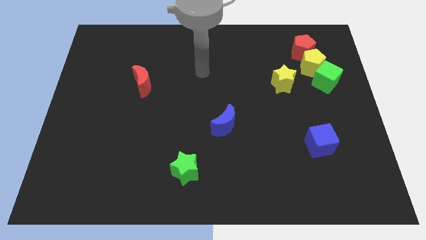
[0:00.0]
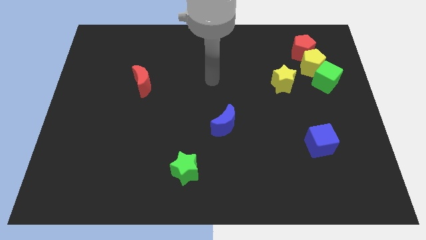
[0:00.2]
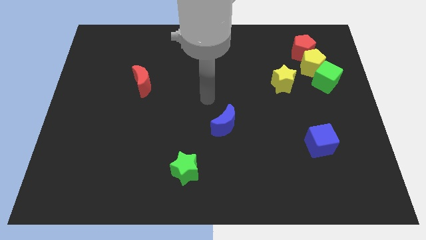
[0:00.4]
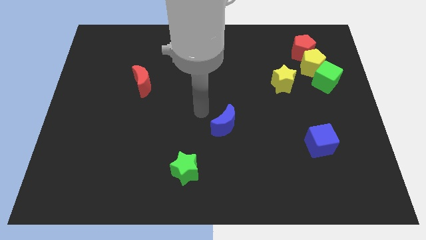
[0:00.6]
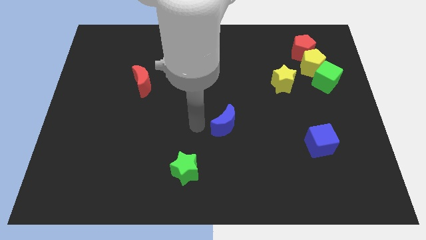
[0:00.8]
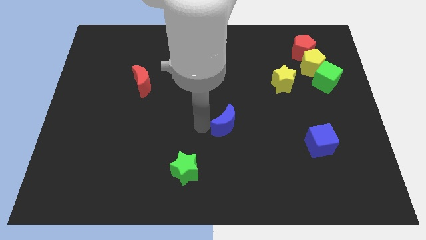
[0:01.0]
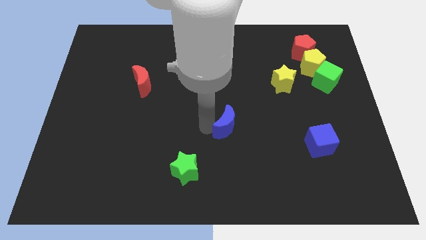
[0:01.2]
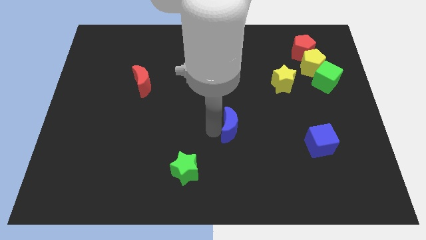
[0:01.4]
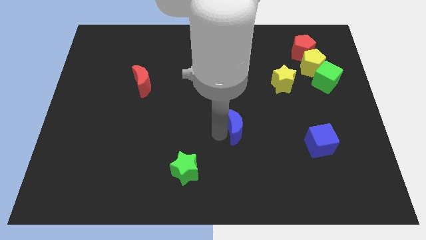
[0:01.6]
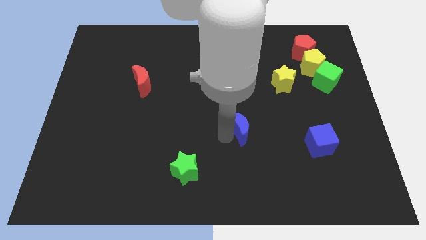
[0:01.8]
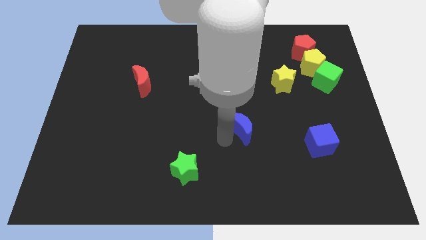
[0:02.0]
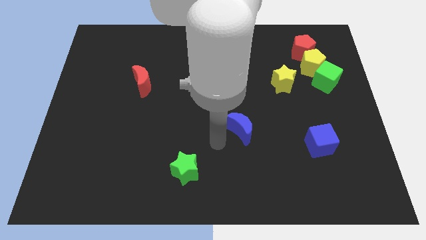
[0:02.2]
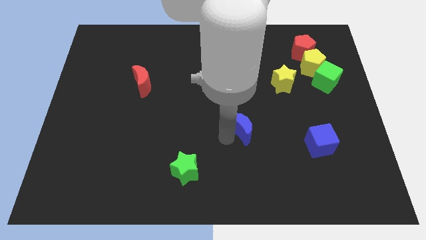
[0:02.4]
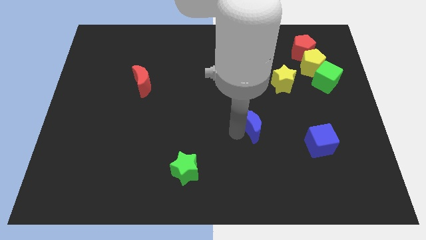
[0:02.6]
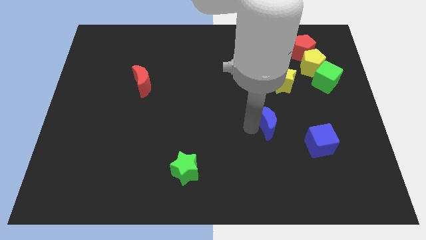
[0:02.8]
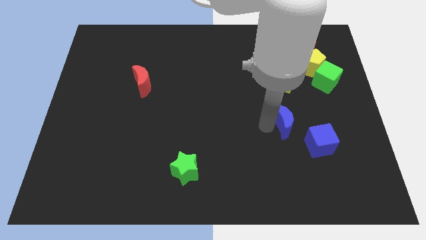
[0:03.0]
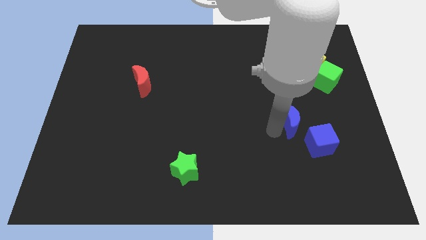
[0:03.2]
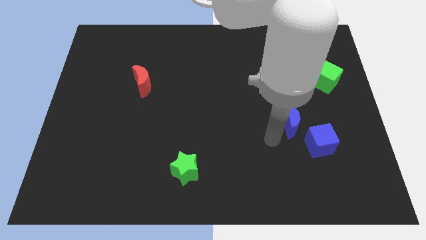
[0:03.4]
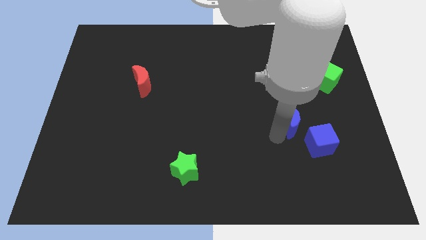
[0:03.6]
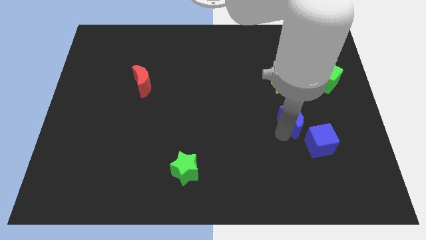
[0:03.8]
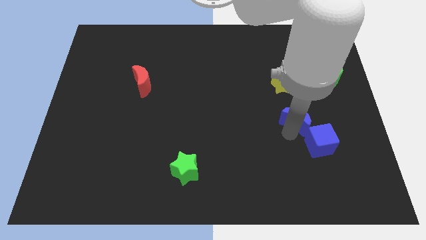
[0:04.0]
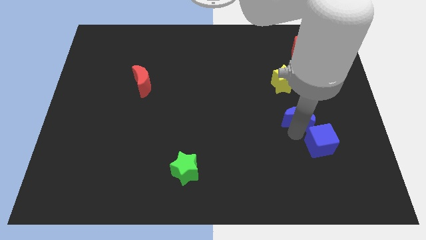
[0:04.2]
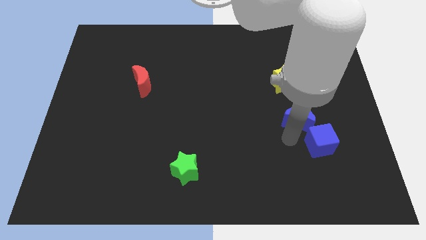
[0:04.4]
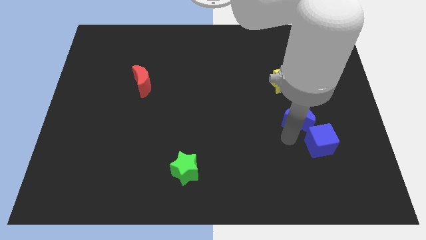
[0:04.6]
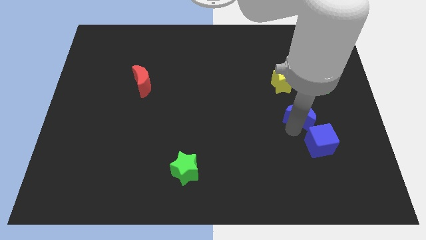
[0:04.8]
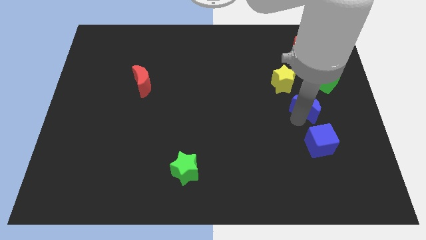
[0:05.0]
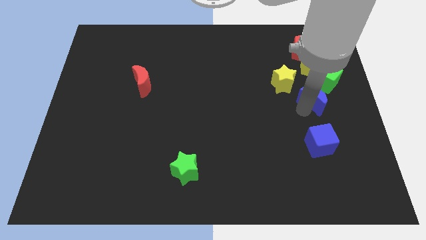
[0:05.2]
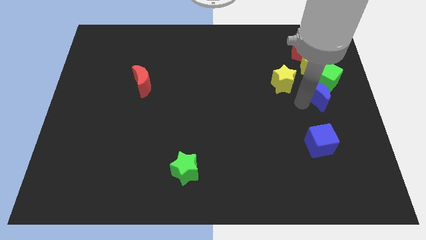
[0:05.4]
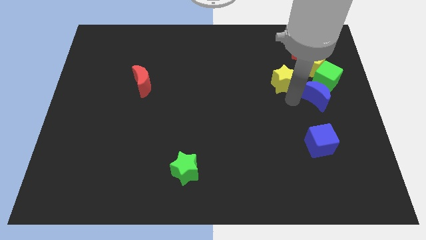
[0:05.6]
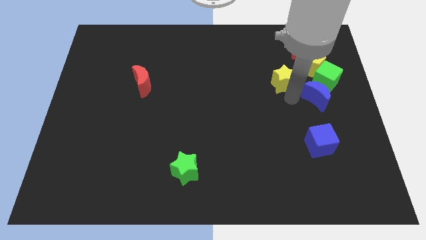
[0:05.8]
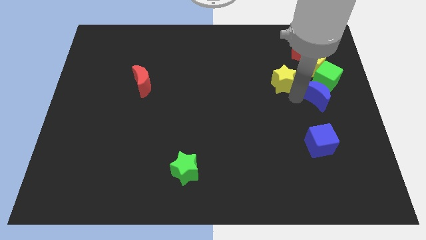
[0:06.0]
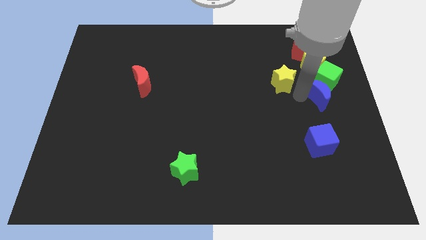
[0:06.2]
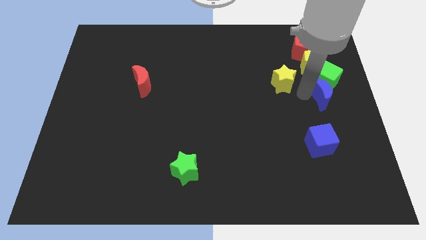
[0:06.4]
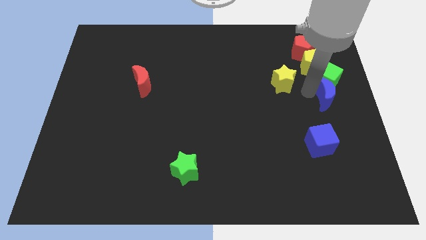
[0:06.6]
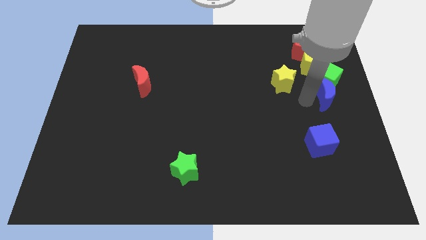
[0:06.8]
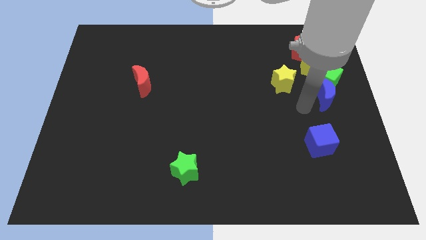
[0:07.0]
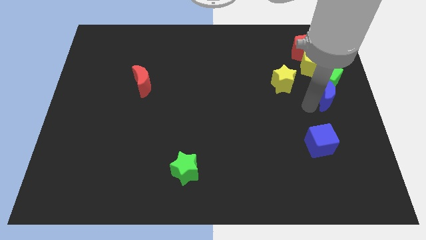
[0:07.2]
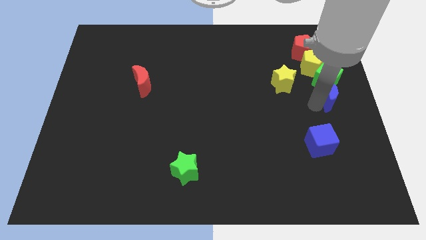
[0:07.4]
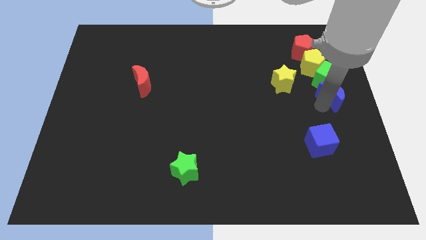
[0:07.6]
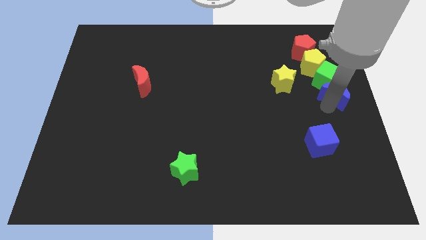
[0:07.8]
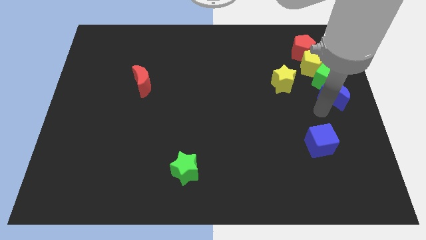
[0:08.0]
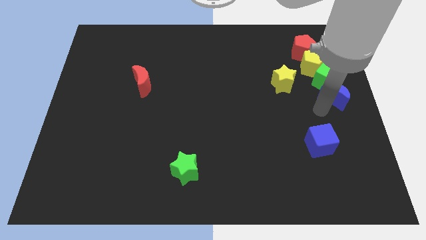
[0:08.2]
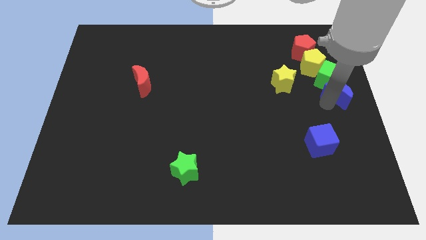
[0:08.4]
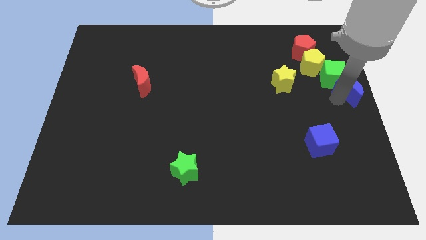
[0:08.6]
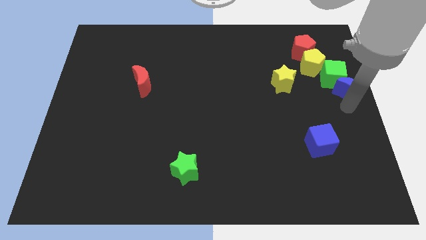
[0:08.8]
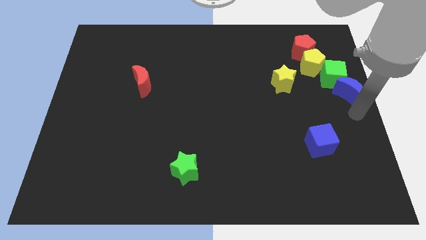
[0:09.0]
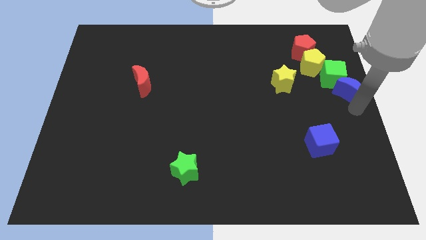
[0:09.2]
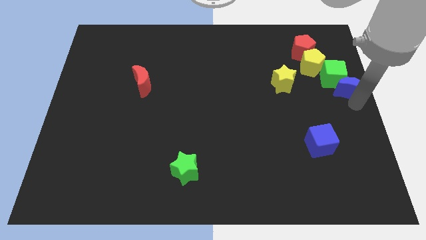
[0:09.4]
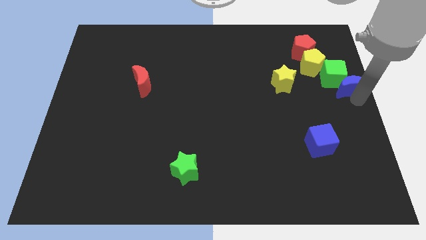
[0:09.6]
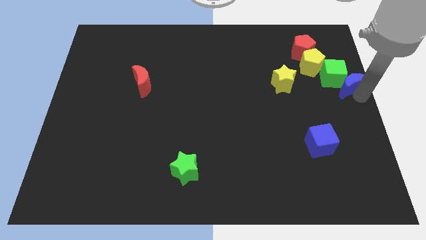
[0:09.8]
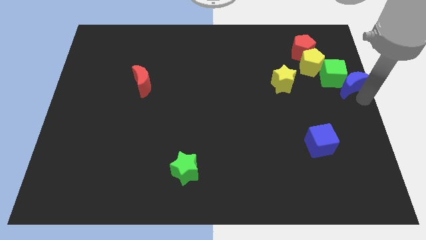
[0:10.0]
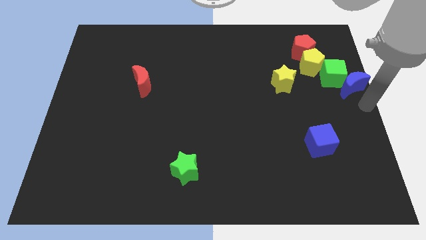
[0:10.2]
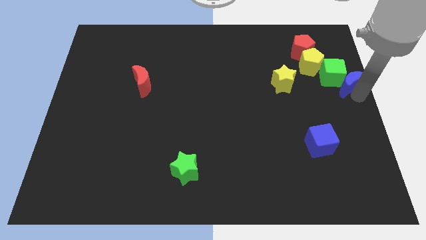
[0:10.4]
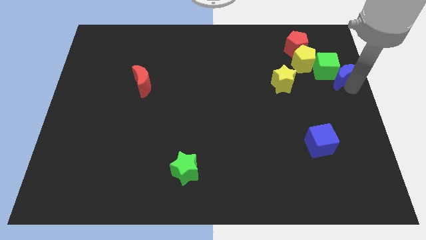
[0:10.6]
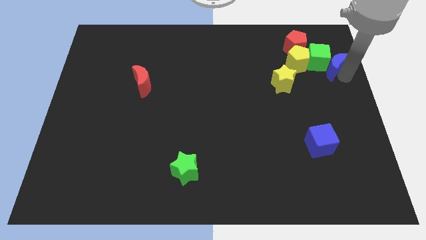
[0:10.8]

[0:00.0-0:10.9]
slide the blue moon diagonally down and to the right of the red pentagon

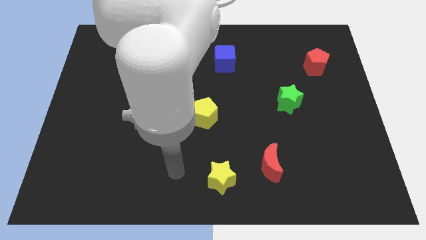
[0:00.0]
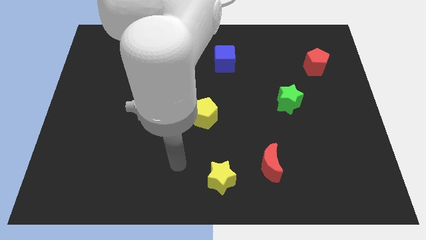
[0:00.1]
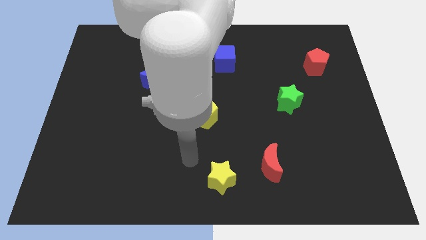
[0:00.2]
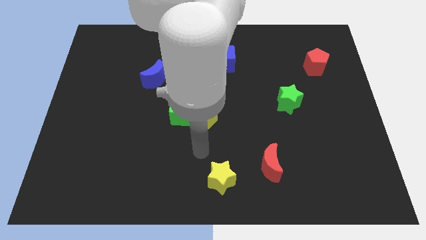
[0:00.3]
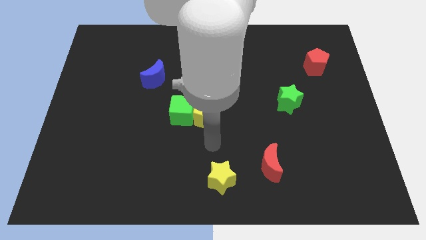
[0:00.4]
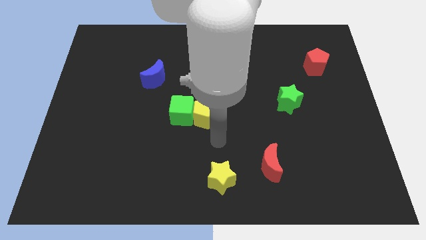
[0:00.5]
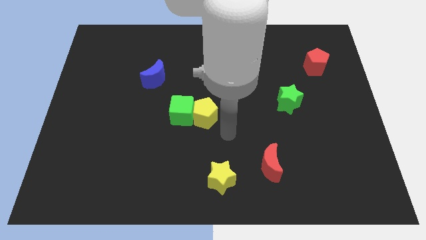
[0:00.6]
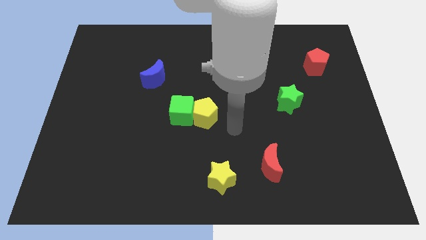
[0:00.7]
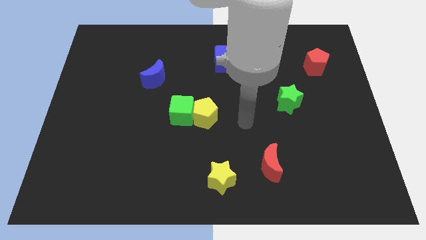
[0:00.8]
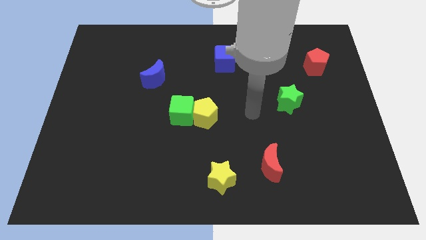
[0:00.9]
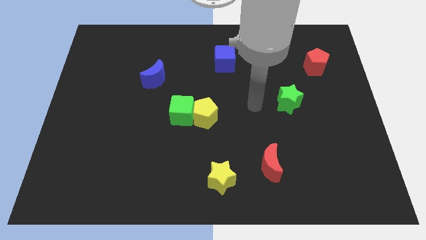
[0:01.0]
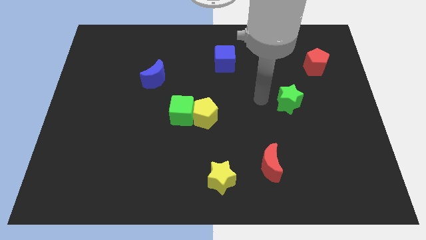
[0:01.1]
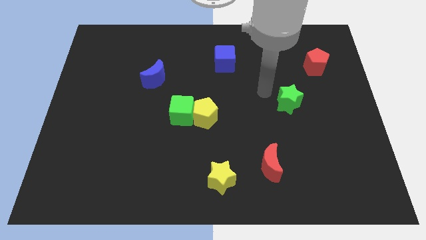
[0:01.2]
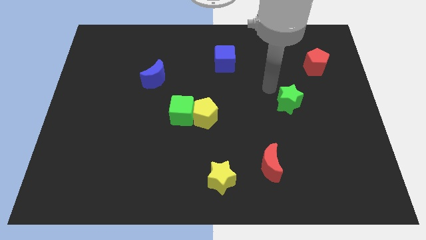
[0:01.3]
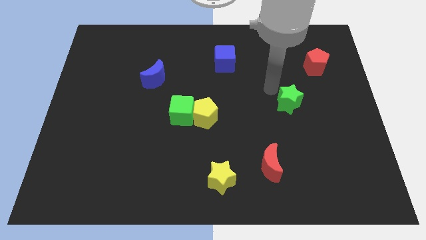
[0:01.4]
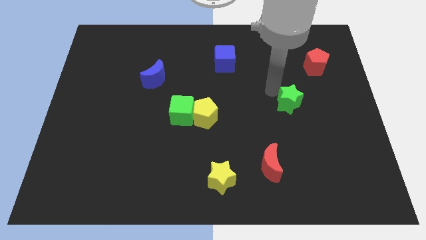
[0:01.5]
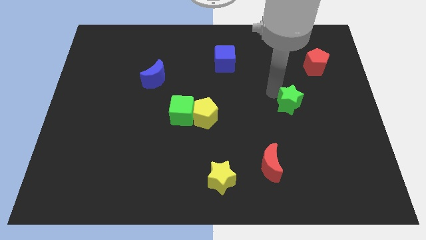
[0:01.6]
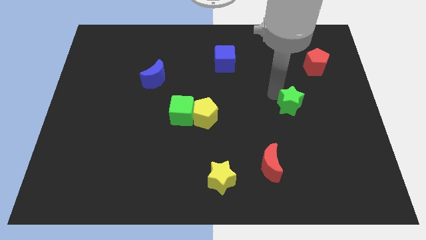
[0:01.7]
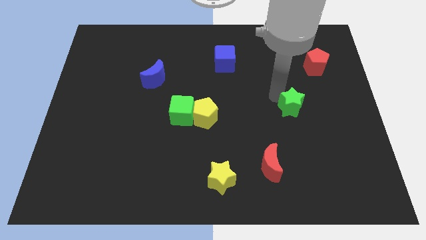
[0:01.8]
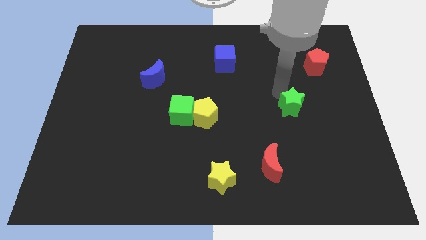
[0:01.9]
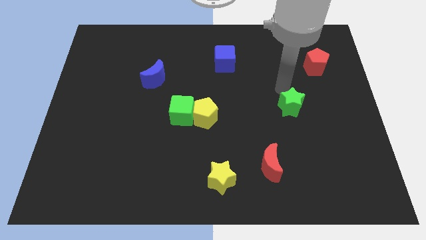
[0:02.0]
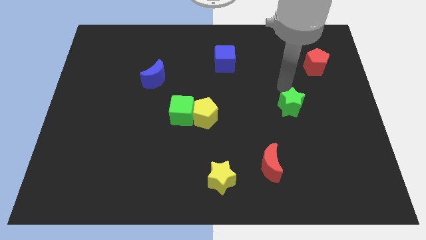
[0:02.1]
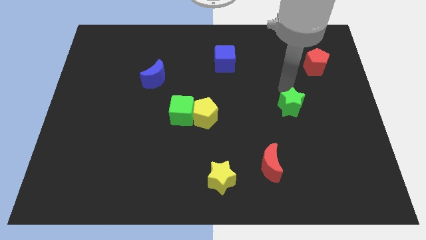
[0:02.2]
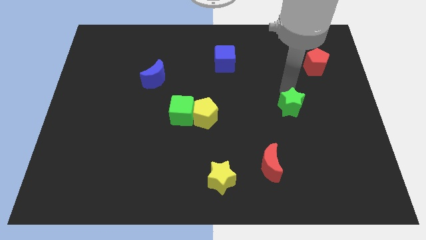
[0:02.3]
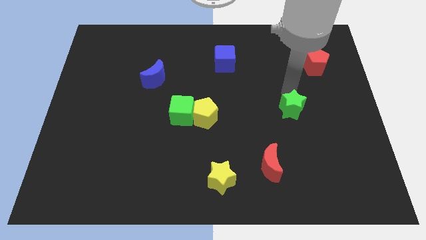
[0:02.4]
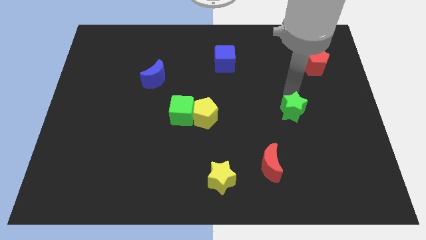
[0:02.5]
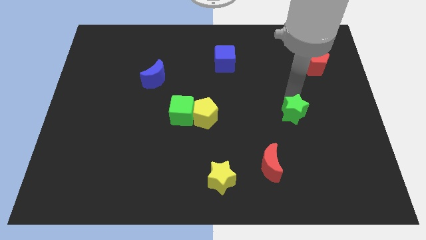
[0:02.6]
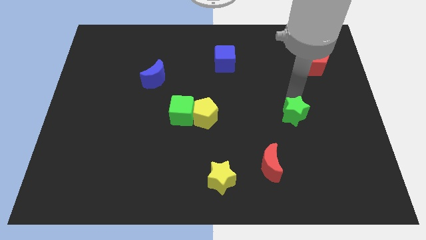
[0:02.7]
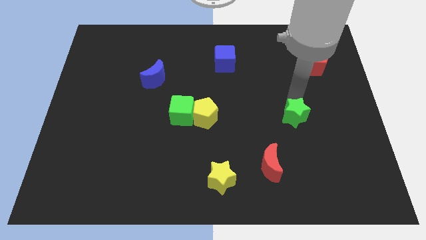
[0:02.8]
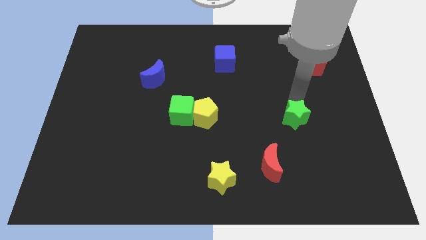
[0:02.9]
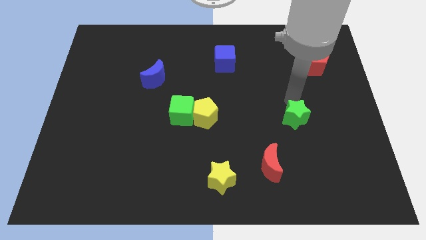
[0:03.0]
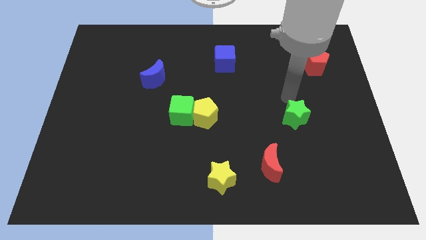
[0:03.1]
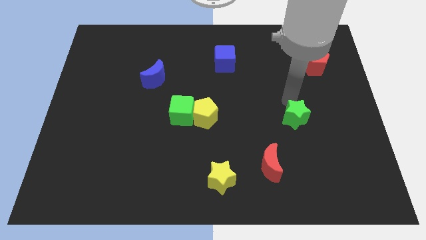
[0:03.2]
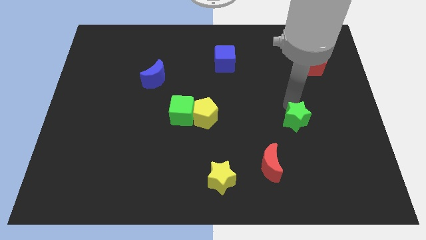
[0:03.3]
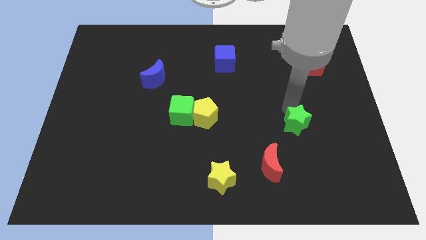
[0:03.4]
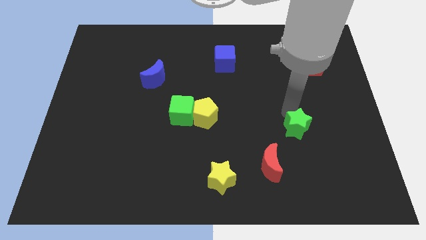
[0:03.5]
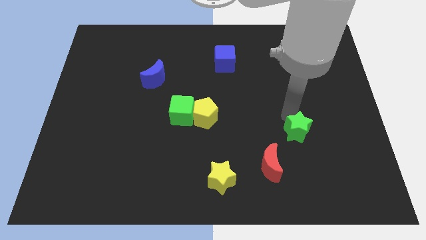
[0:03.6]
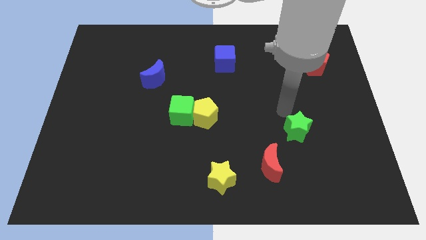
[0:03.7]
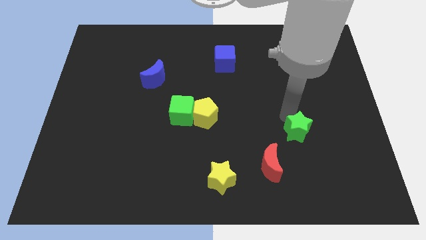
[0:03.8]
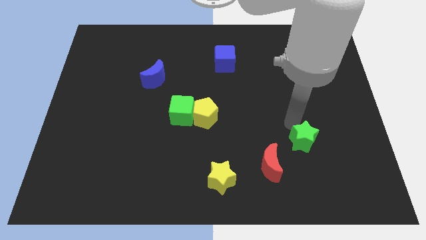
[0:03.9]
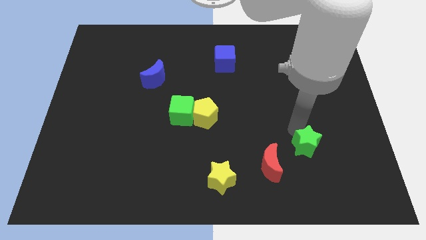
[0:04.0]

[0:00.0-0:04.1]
push the green star just right of the red moon
